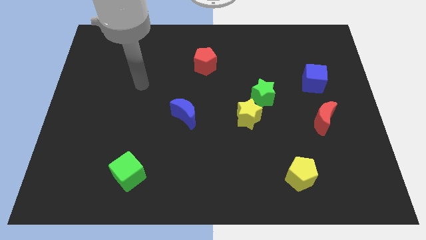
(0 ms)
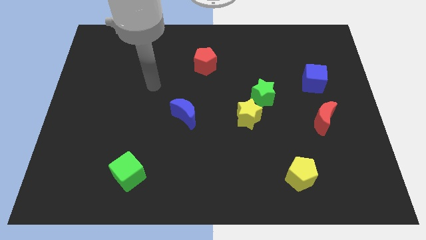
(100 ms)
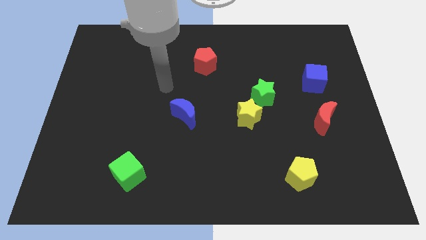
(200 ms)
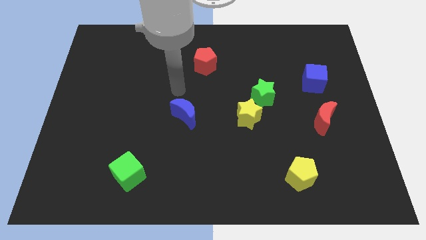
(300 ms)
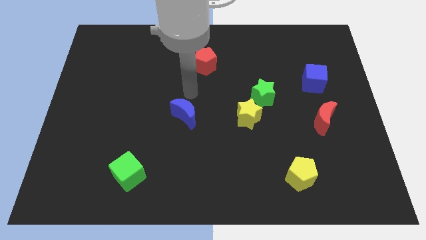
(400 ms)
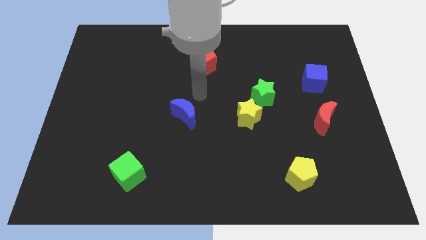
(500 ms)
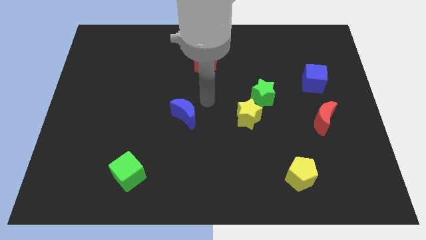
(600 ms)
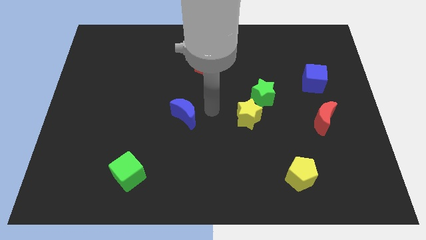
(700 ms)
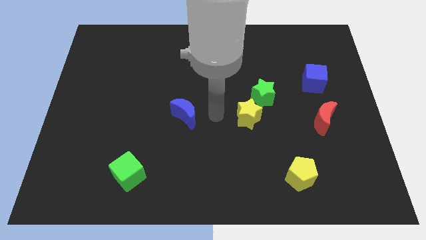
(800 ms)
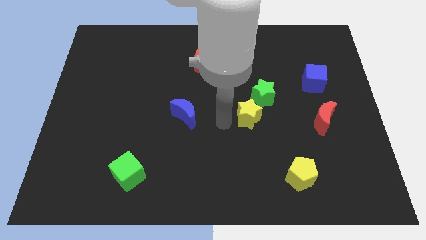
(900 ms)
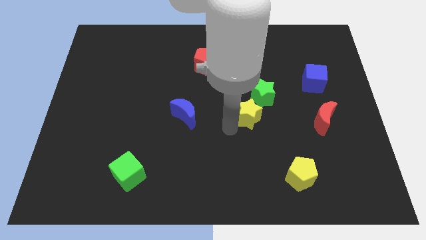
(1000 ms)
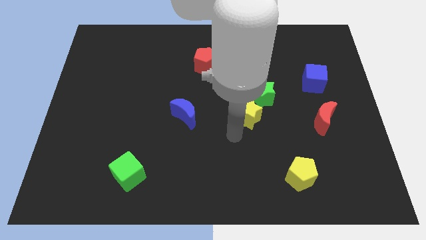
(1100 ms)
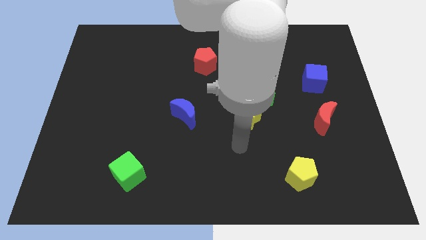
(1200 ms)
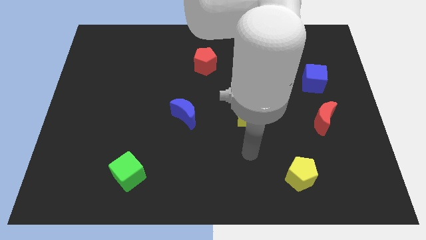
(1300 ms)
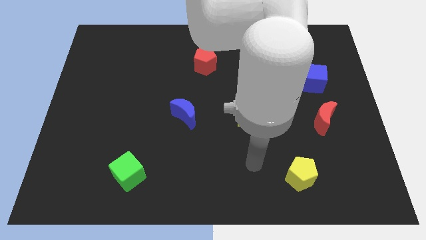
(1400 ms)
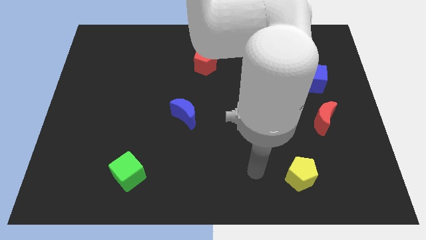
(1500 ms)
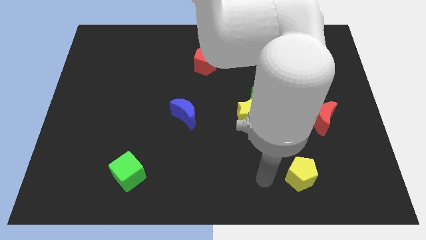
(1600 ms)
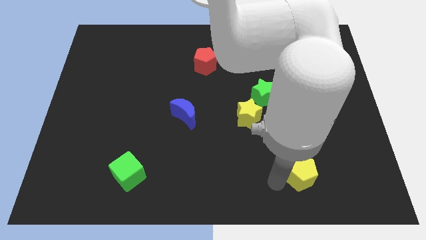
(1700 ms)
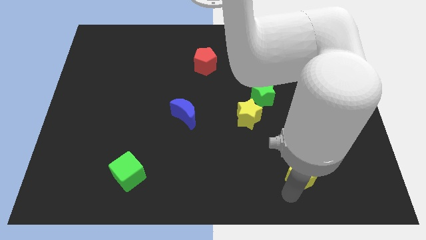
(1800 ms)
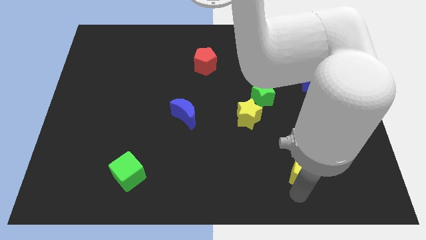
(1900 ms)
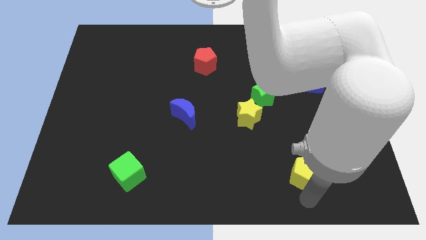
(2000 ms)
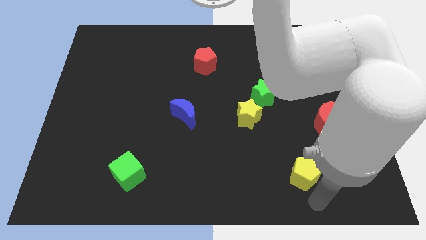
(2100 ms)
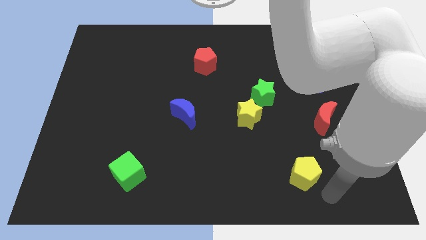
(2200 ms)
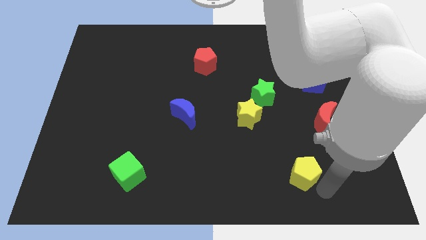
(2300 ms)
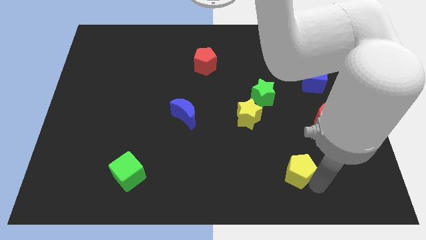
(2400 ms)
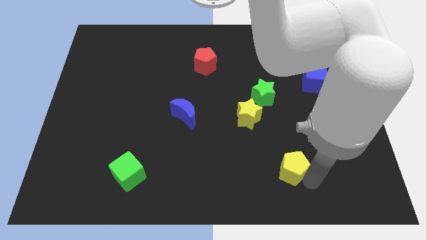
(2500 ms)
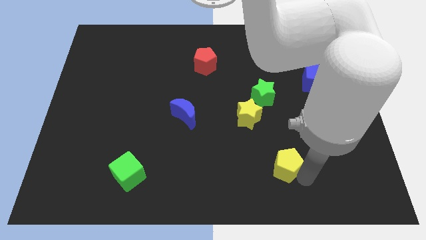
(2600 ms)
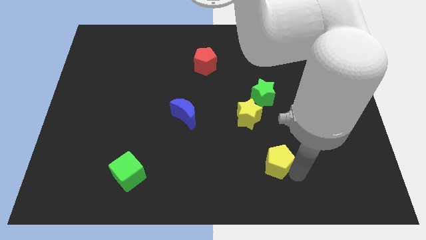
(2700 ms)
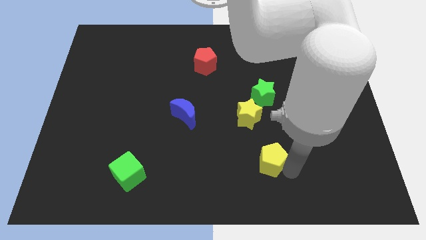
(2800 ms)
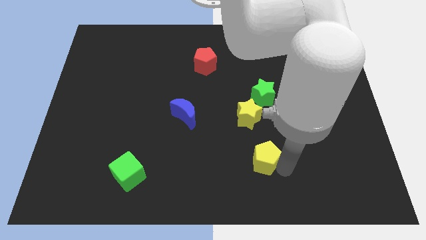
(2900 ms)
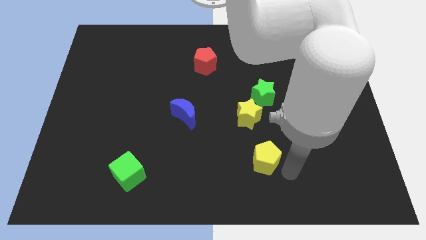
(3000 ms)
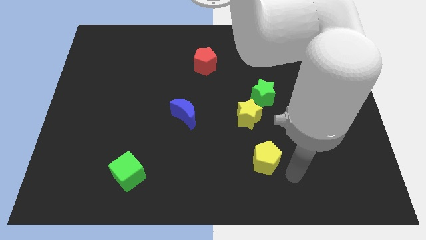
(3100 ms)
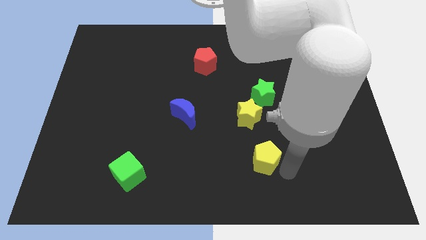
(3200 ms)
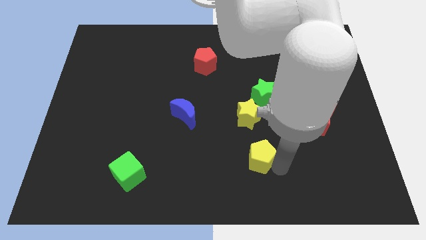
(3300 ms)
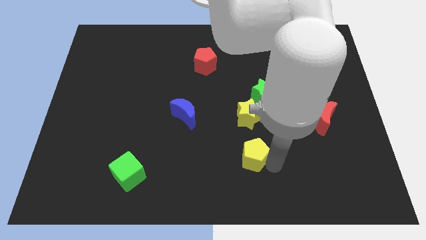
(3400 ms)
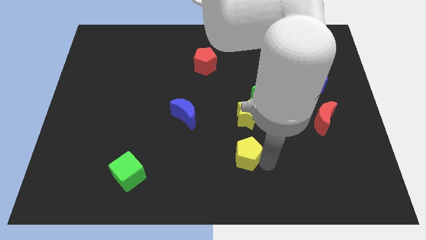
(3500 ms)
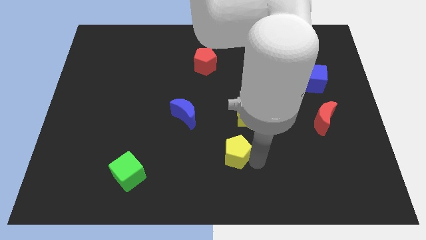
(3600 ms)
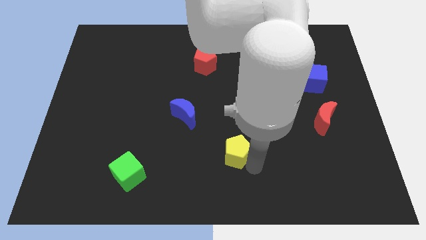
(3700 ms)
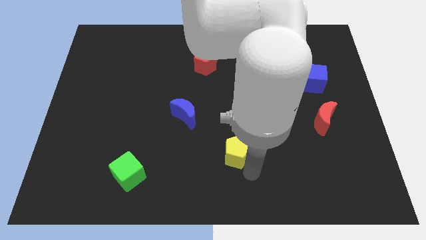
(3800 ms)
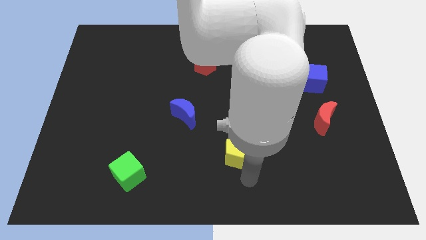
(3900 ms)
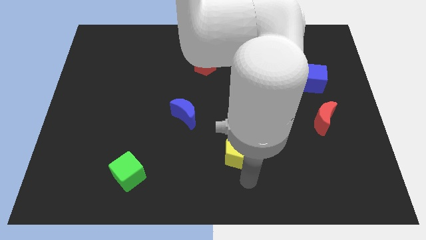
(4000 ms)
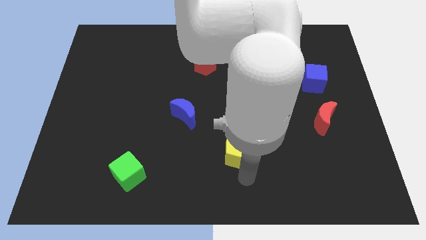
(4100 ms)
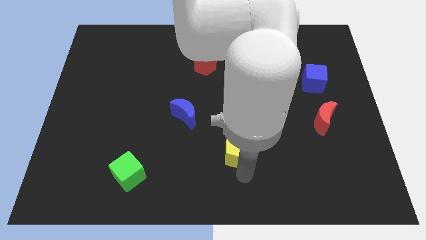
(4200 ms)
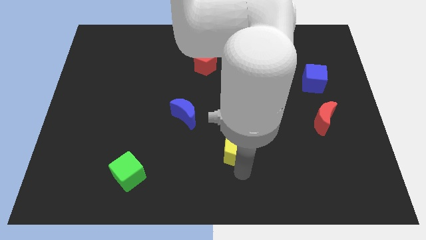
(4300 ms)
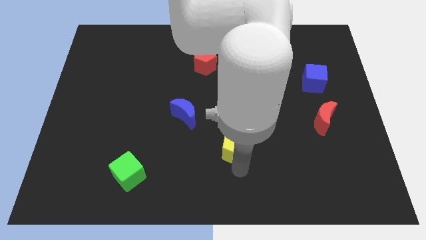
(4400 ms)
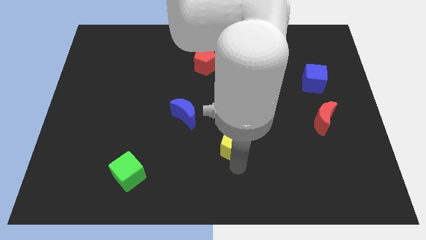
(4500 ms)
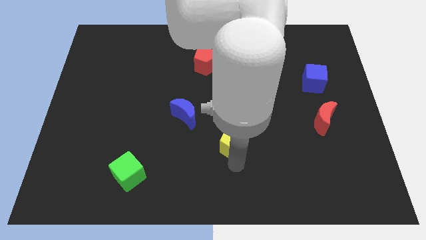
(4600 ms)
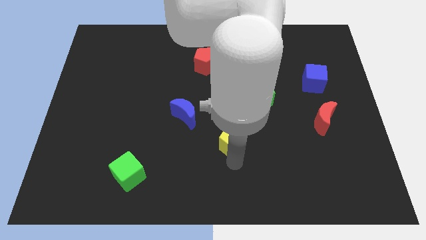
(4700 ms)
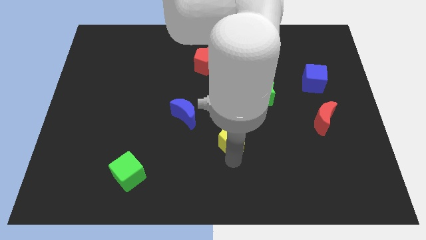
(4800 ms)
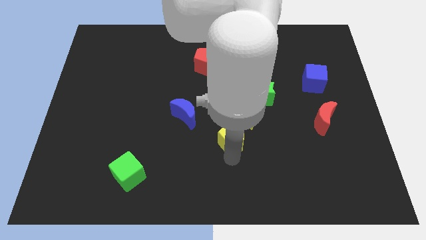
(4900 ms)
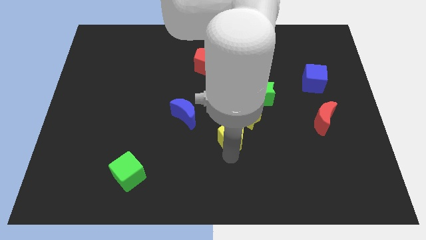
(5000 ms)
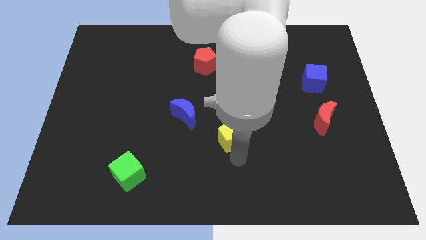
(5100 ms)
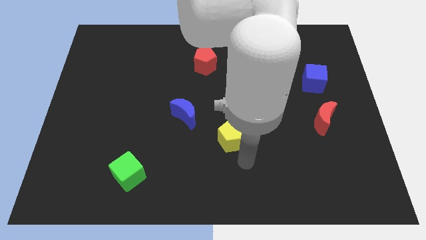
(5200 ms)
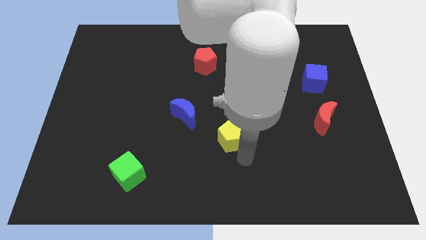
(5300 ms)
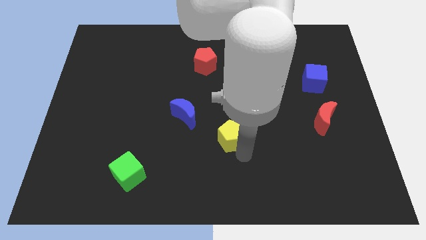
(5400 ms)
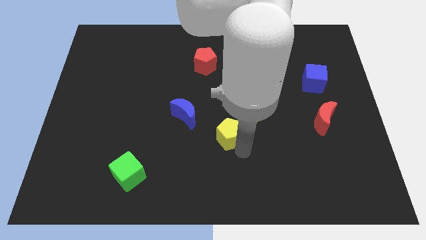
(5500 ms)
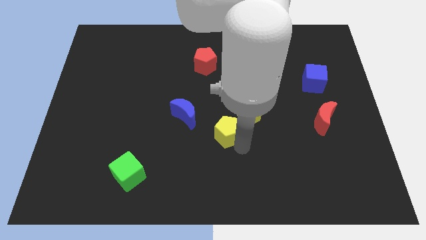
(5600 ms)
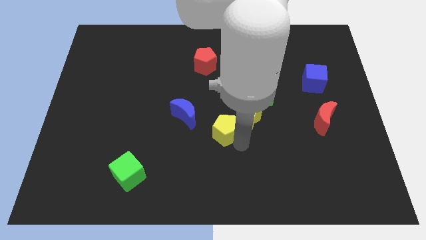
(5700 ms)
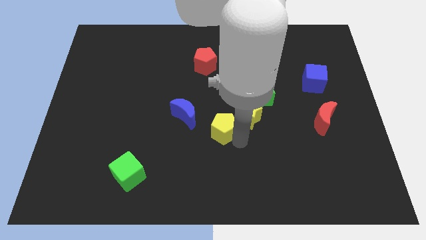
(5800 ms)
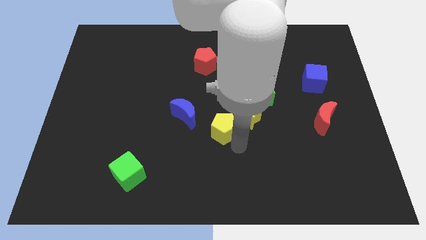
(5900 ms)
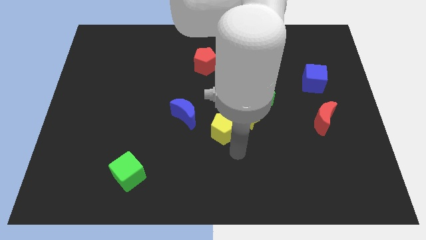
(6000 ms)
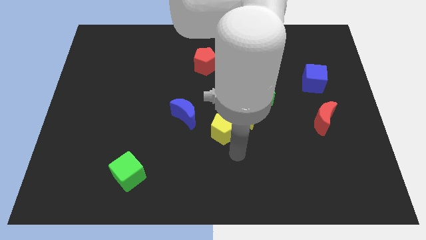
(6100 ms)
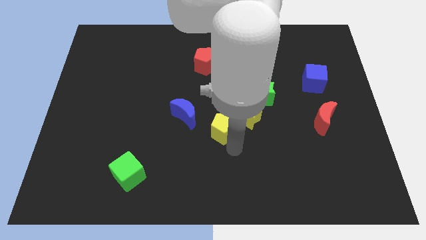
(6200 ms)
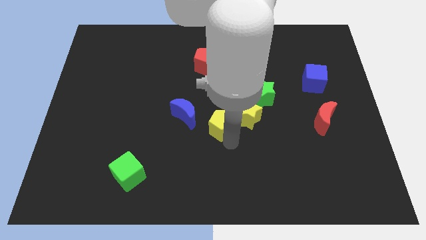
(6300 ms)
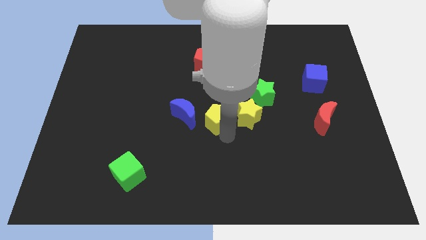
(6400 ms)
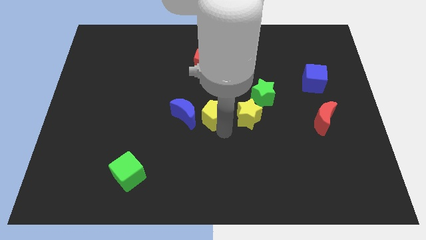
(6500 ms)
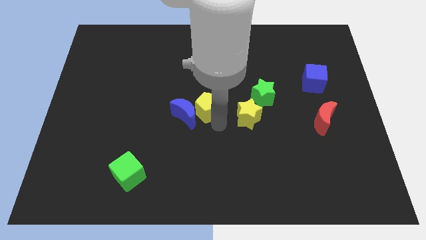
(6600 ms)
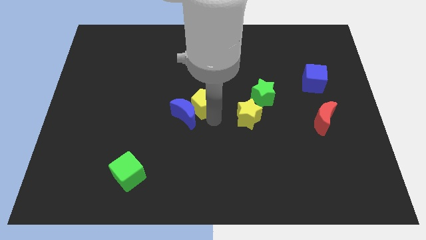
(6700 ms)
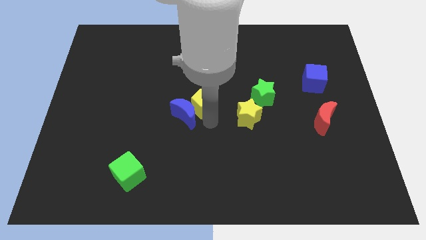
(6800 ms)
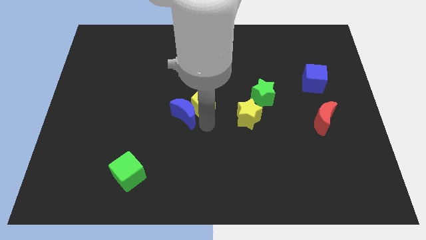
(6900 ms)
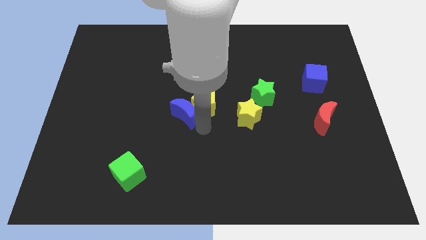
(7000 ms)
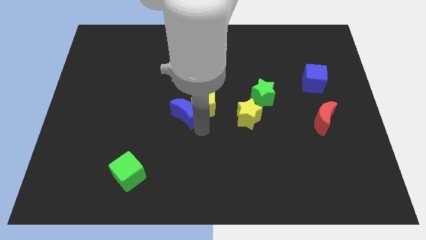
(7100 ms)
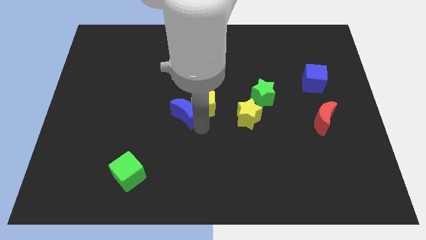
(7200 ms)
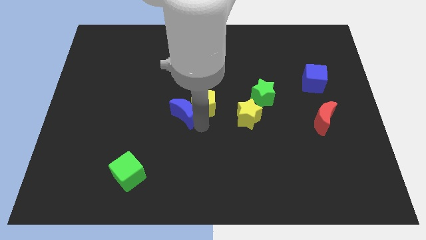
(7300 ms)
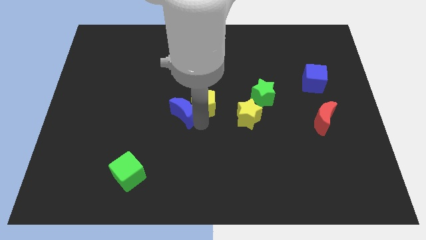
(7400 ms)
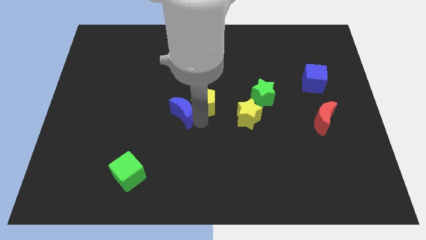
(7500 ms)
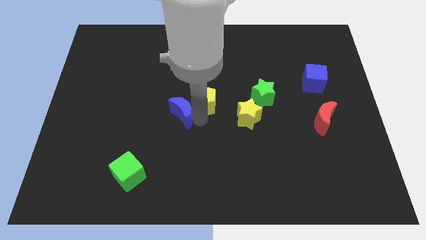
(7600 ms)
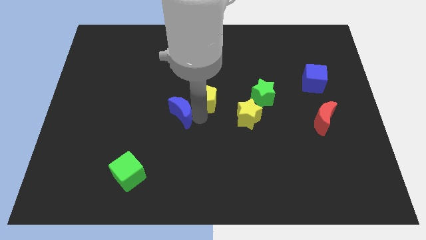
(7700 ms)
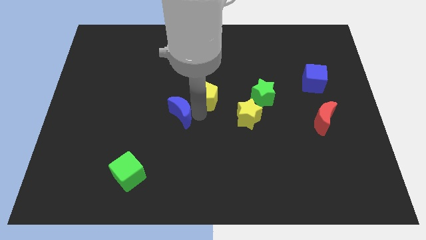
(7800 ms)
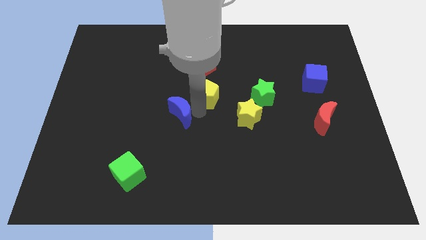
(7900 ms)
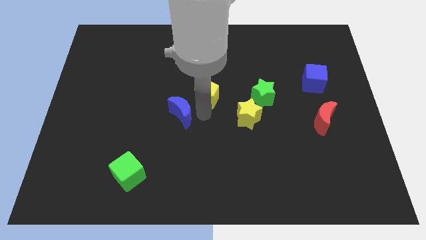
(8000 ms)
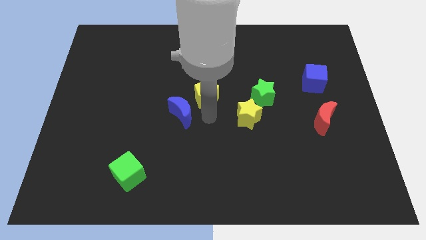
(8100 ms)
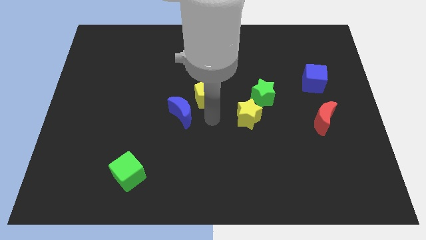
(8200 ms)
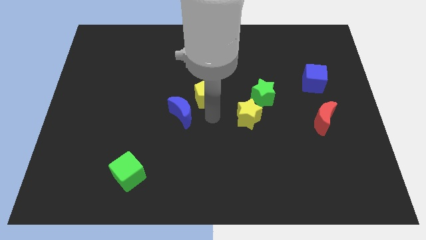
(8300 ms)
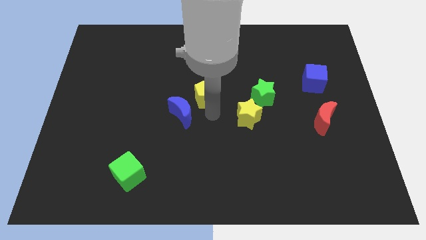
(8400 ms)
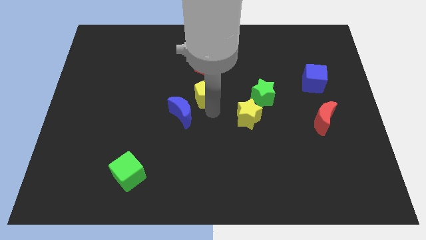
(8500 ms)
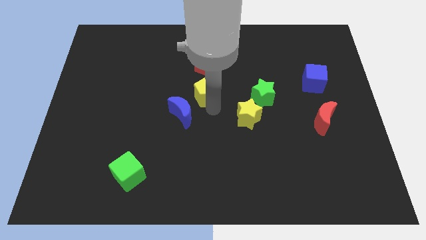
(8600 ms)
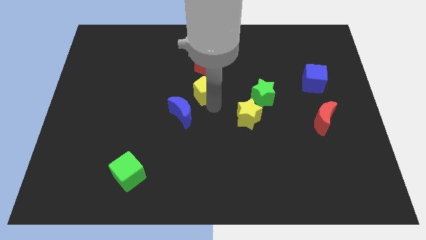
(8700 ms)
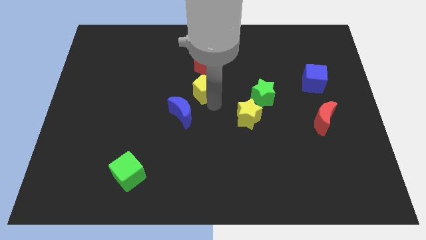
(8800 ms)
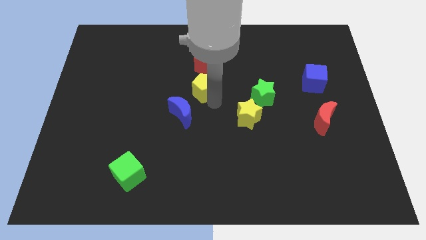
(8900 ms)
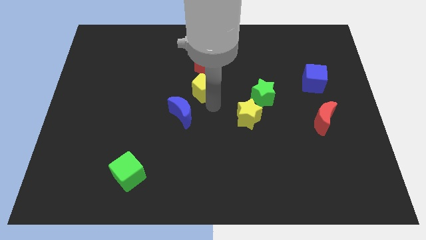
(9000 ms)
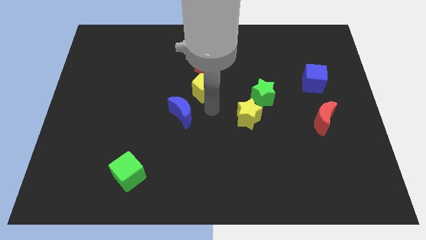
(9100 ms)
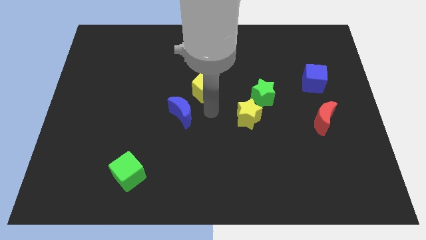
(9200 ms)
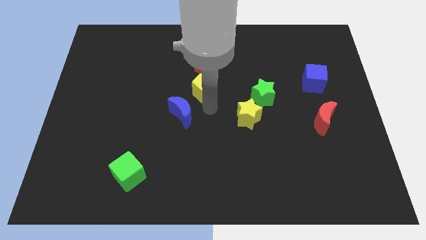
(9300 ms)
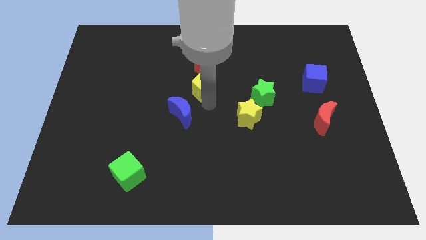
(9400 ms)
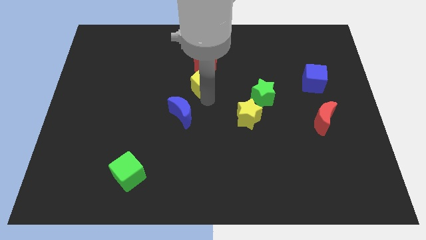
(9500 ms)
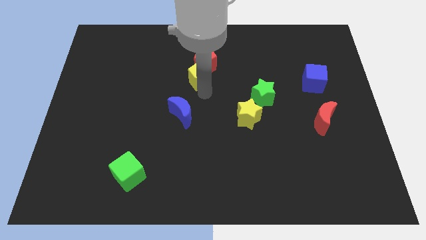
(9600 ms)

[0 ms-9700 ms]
slide the yellow pentagon next to the red pentagon
